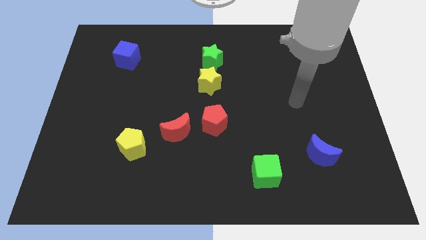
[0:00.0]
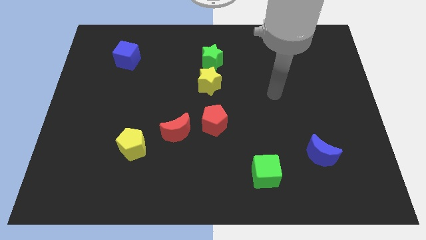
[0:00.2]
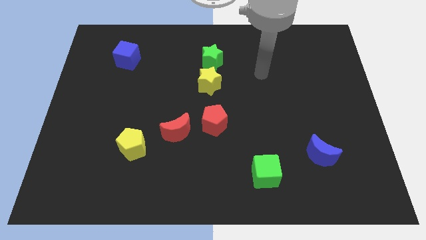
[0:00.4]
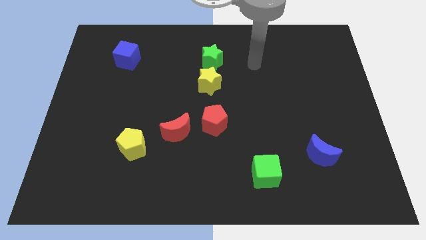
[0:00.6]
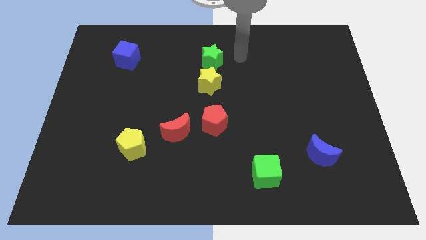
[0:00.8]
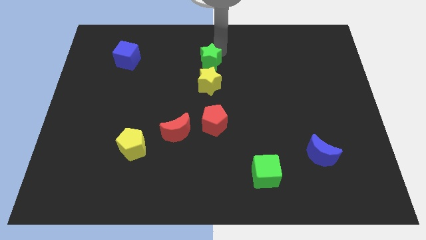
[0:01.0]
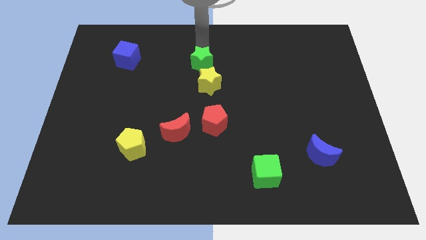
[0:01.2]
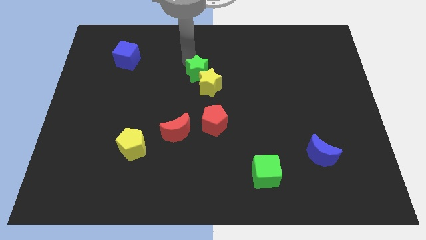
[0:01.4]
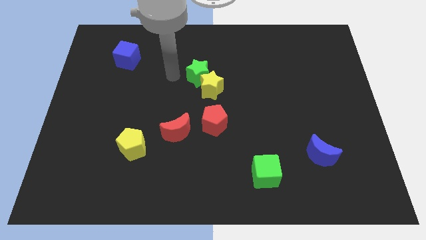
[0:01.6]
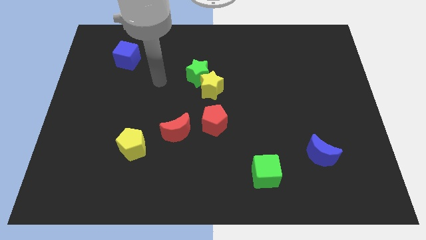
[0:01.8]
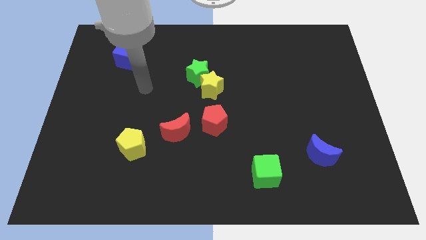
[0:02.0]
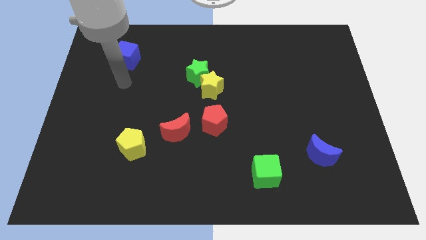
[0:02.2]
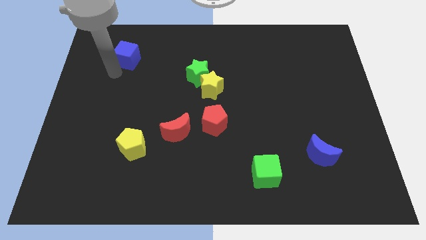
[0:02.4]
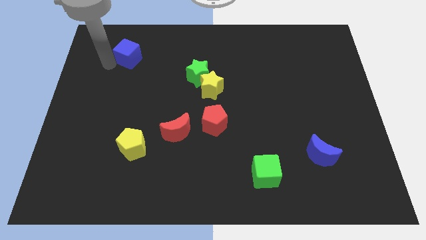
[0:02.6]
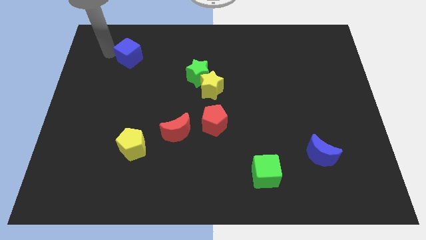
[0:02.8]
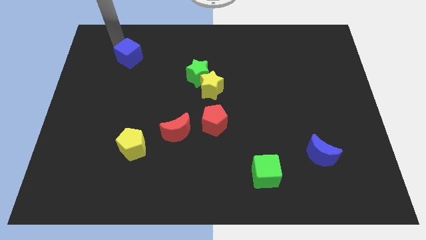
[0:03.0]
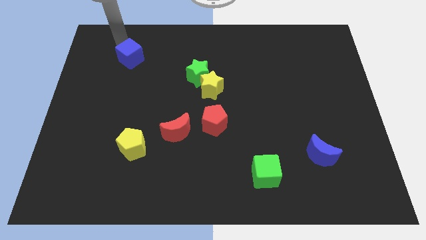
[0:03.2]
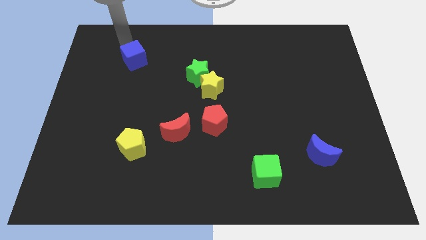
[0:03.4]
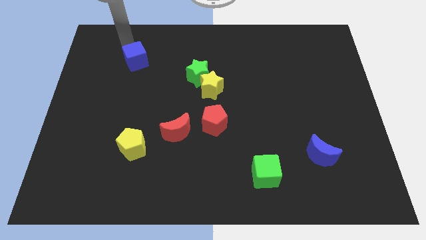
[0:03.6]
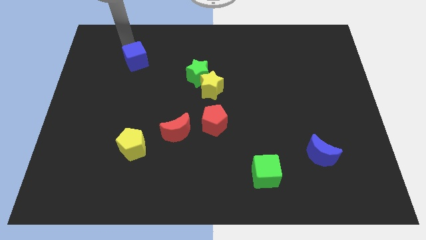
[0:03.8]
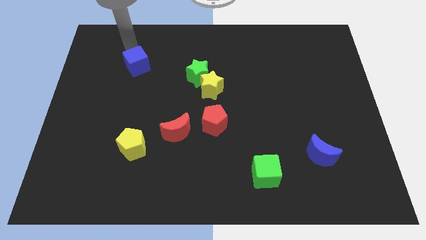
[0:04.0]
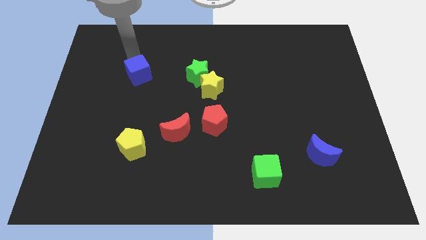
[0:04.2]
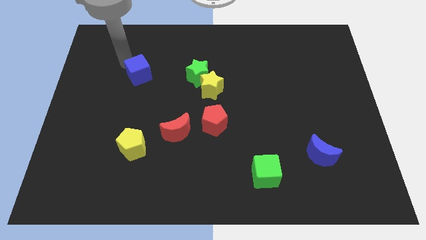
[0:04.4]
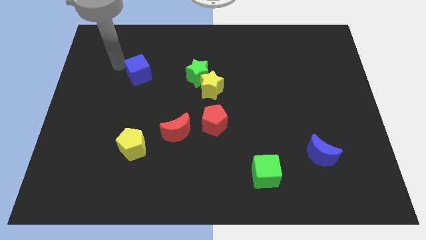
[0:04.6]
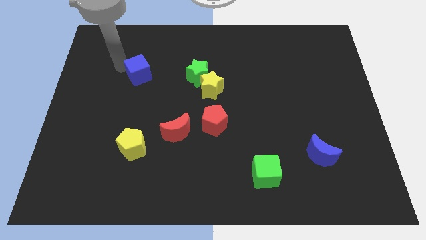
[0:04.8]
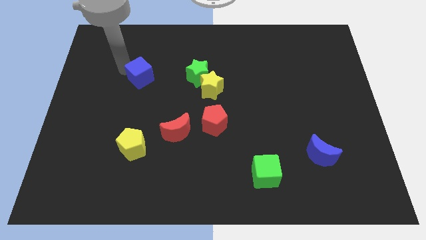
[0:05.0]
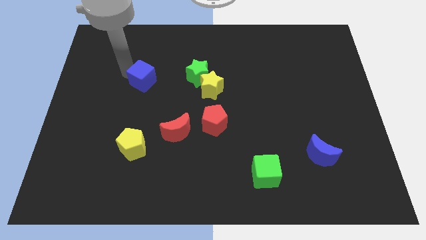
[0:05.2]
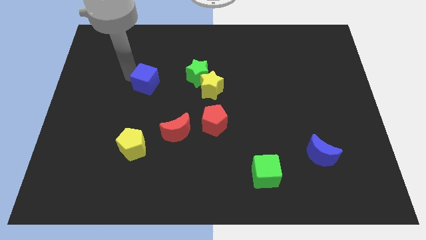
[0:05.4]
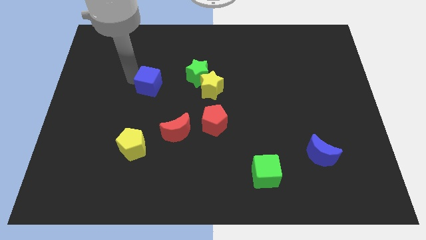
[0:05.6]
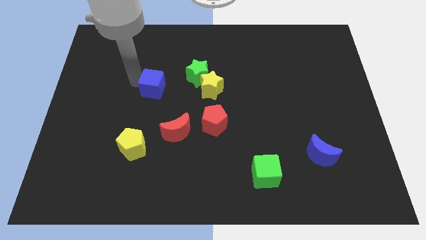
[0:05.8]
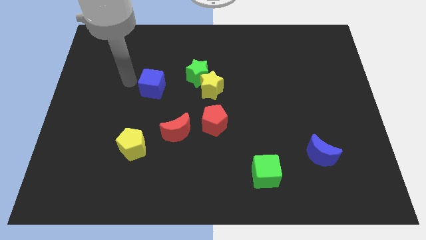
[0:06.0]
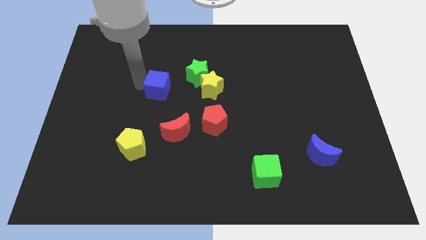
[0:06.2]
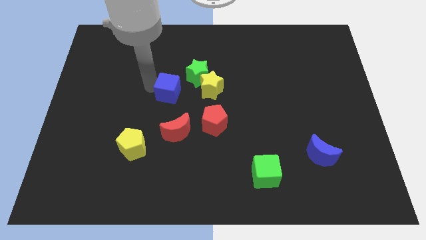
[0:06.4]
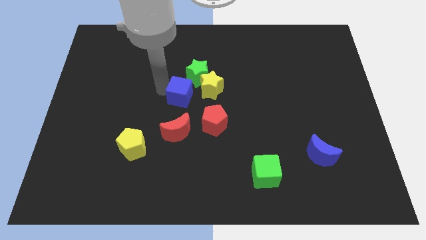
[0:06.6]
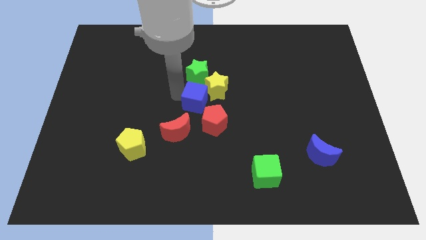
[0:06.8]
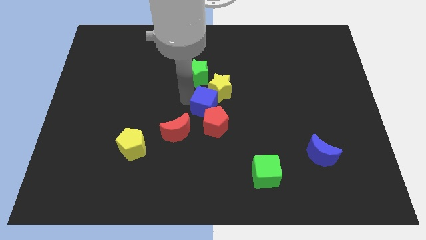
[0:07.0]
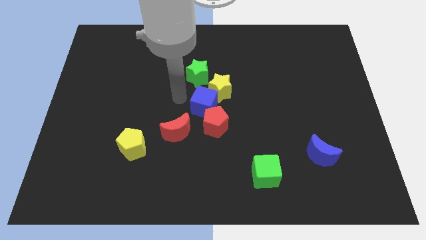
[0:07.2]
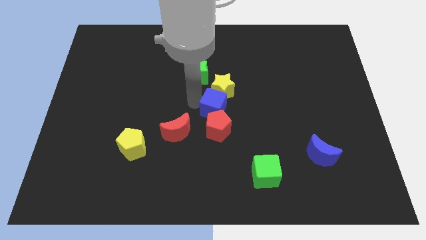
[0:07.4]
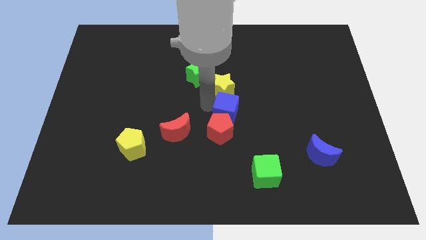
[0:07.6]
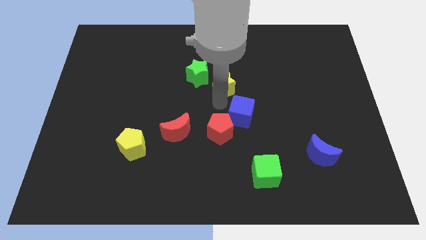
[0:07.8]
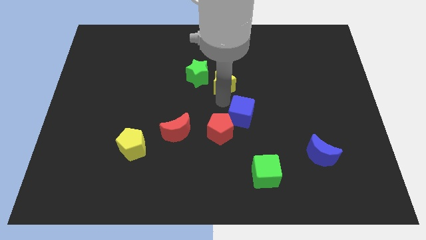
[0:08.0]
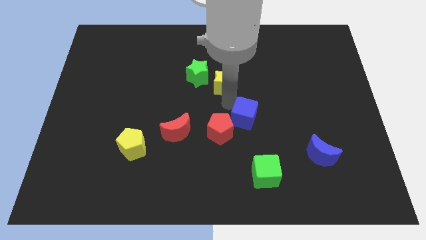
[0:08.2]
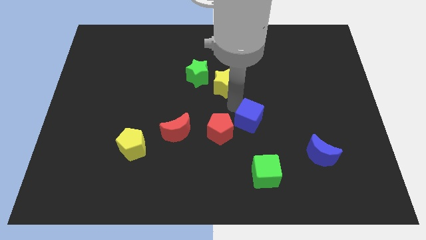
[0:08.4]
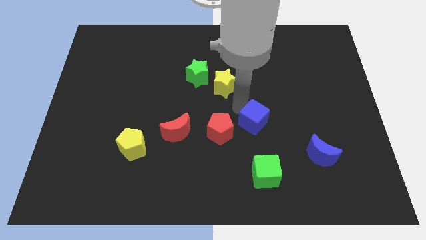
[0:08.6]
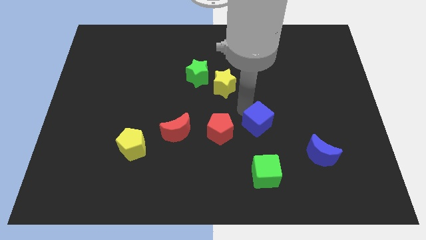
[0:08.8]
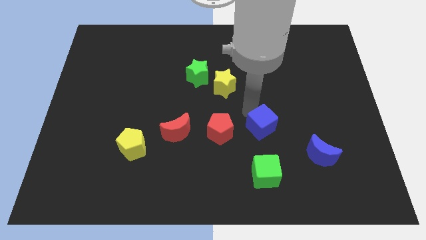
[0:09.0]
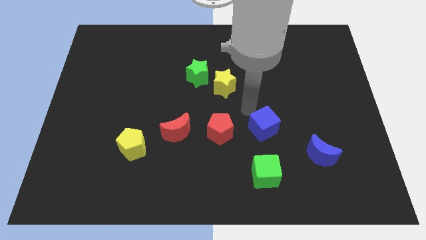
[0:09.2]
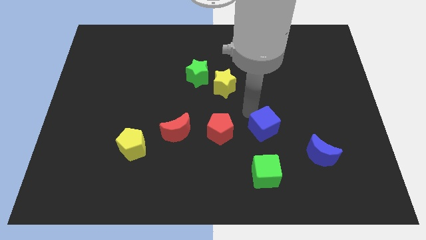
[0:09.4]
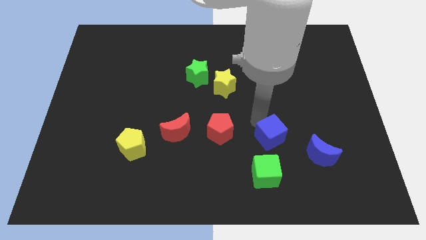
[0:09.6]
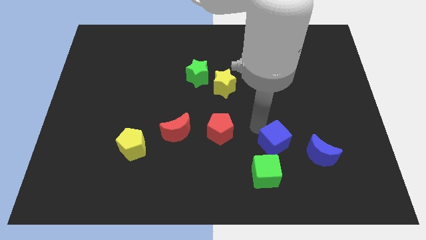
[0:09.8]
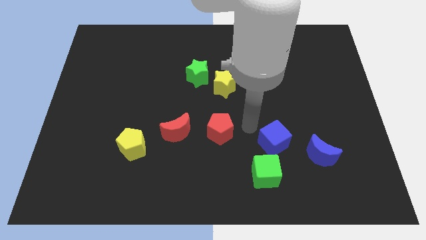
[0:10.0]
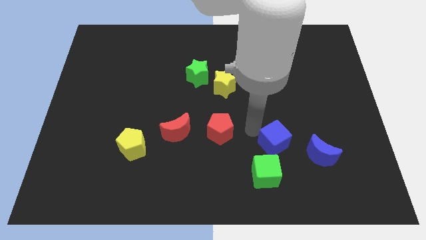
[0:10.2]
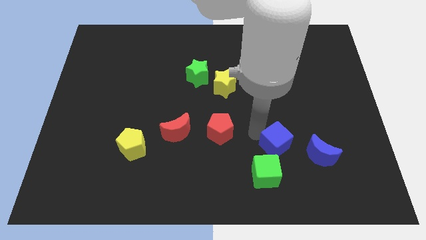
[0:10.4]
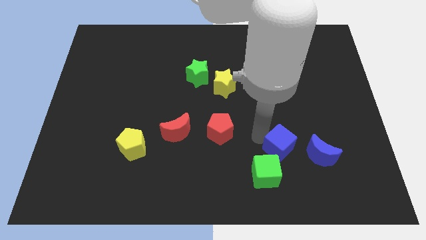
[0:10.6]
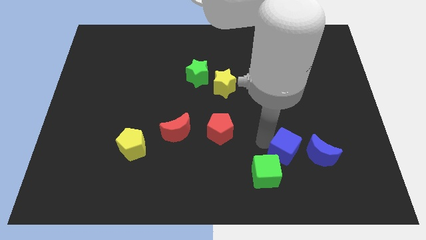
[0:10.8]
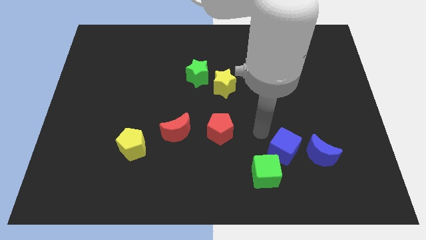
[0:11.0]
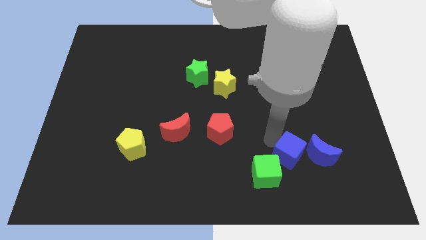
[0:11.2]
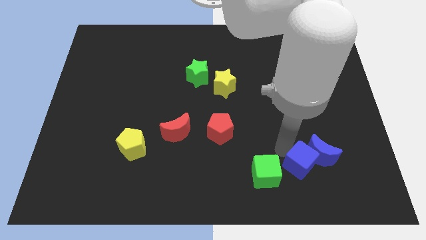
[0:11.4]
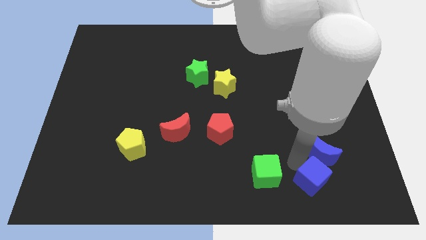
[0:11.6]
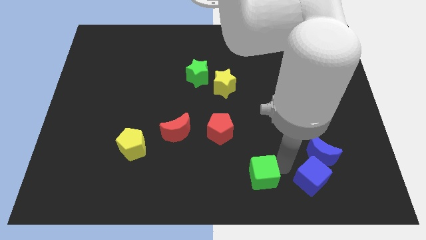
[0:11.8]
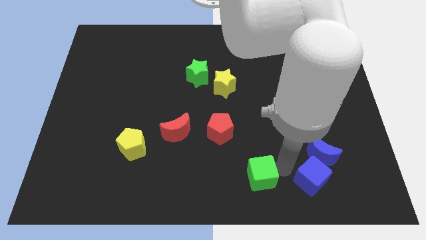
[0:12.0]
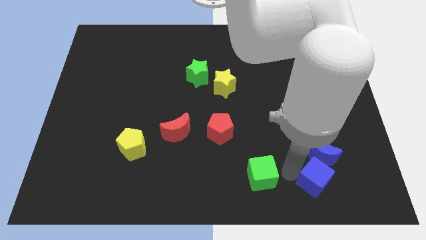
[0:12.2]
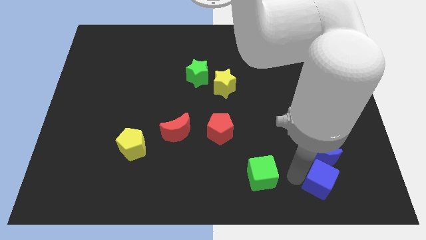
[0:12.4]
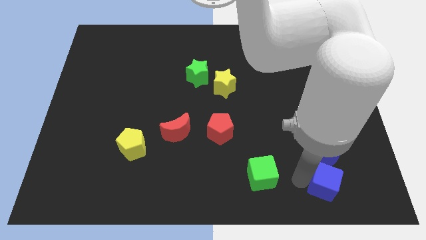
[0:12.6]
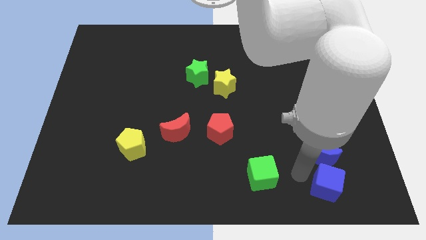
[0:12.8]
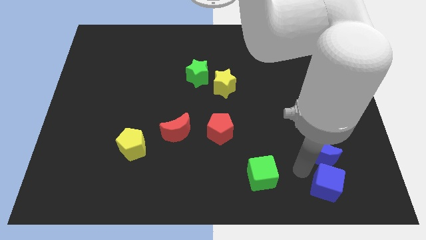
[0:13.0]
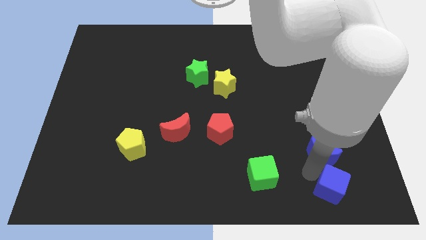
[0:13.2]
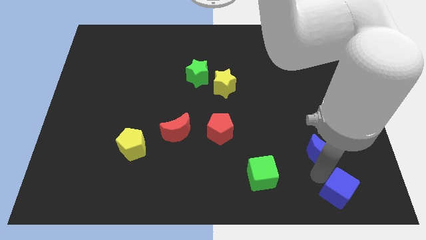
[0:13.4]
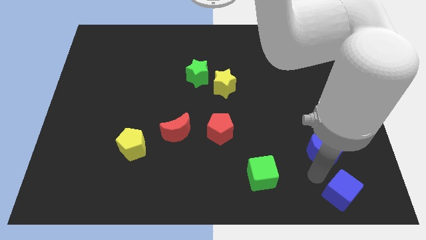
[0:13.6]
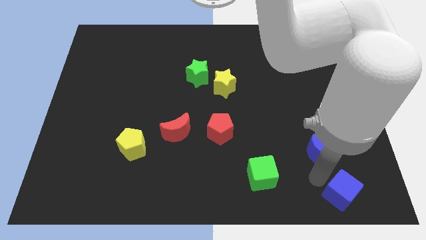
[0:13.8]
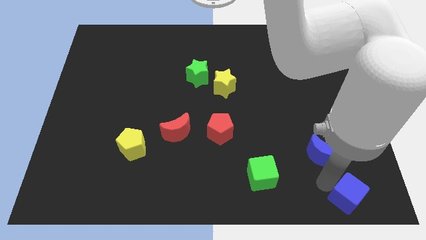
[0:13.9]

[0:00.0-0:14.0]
put the blue cube to the bottom right of the board
